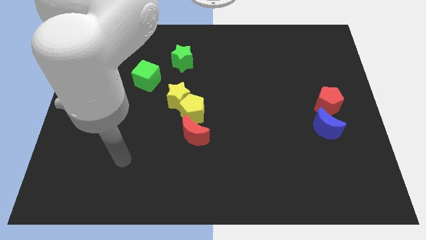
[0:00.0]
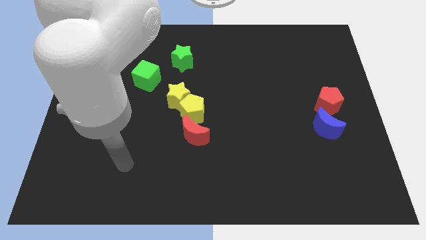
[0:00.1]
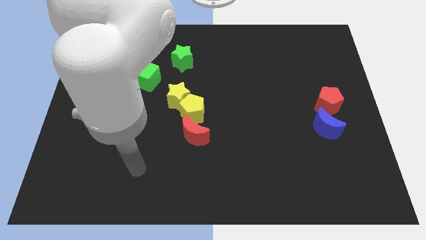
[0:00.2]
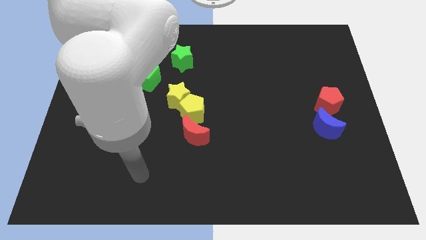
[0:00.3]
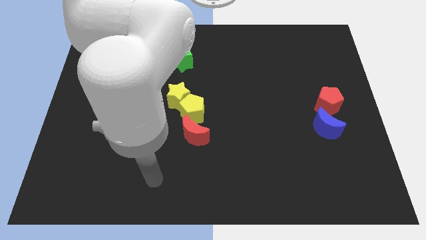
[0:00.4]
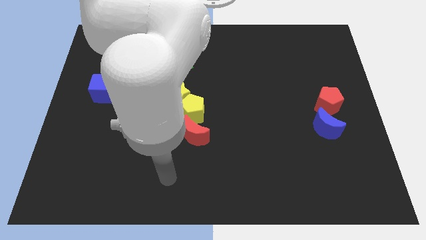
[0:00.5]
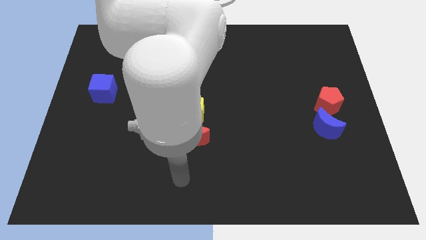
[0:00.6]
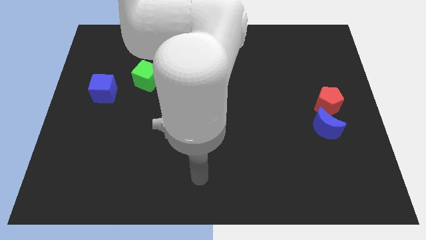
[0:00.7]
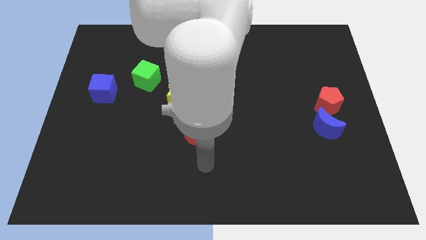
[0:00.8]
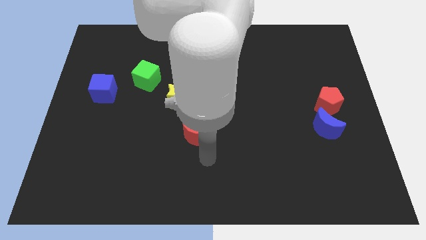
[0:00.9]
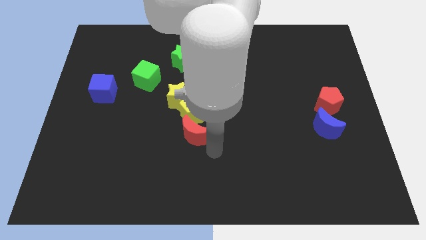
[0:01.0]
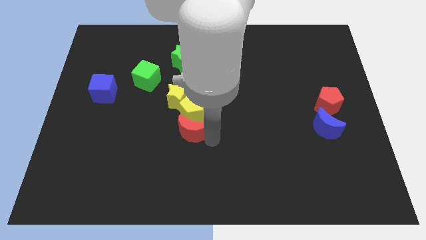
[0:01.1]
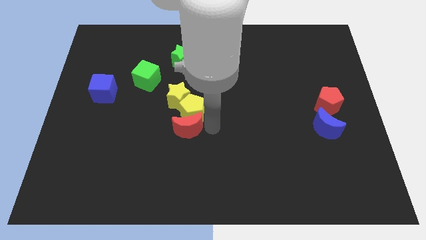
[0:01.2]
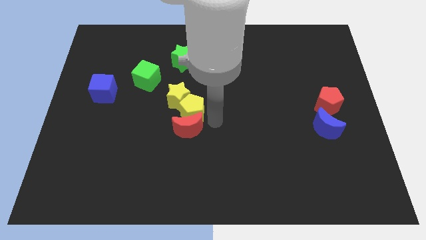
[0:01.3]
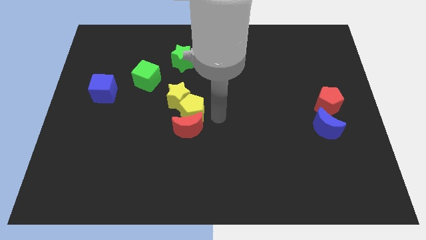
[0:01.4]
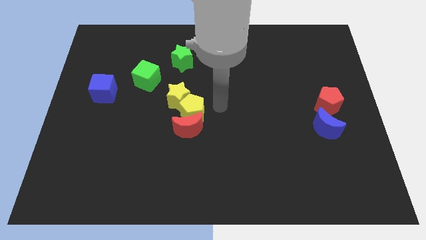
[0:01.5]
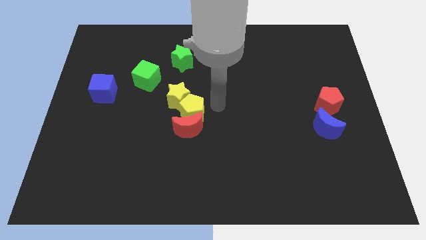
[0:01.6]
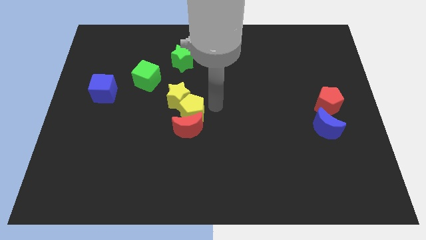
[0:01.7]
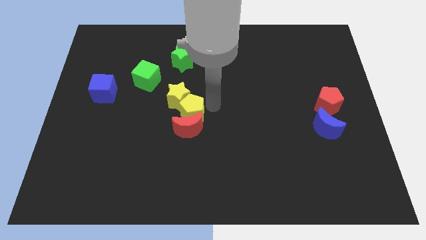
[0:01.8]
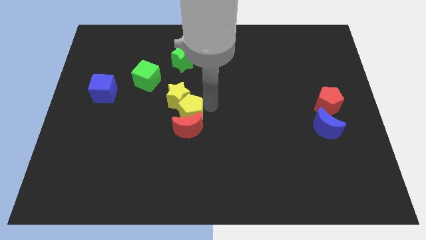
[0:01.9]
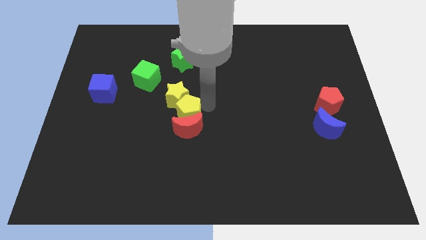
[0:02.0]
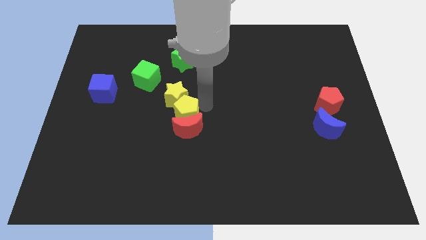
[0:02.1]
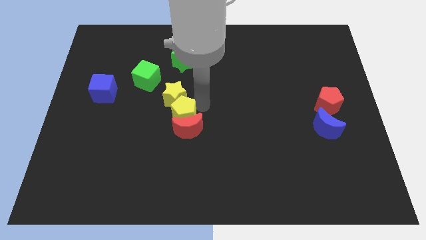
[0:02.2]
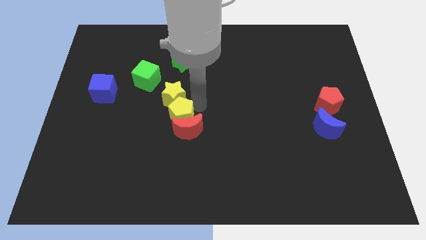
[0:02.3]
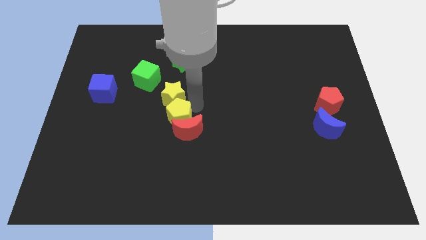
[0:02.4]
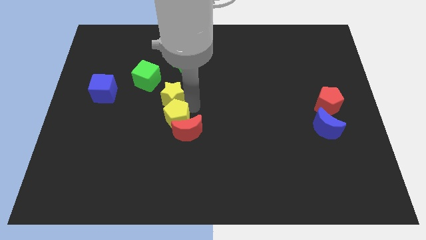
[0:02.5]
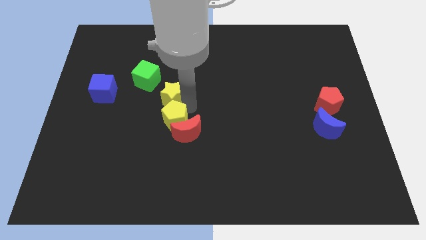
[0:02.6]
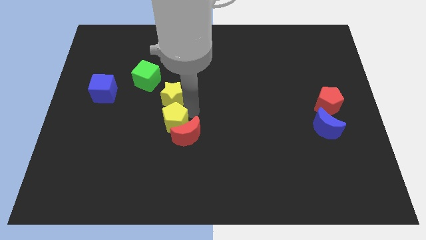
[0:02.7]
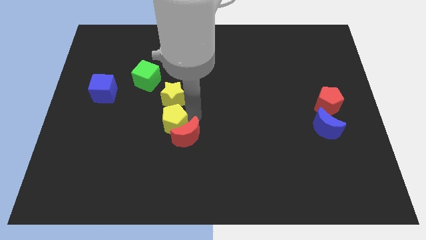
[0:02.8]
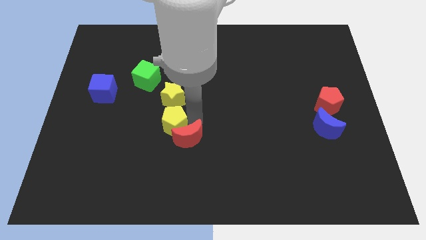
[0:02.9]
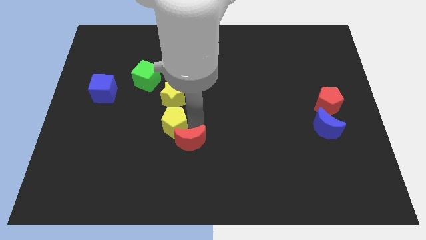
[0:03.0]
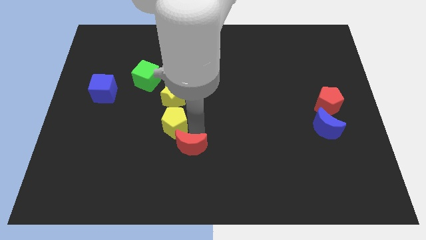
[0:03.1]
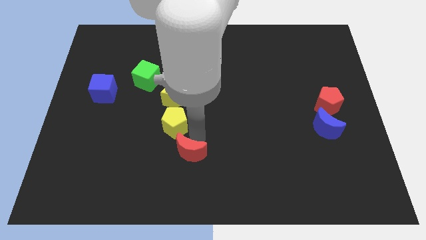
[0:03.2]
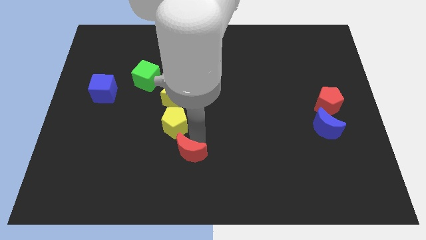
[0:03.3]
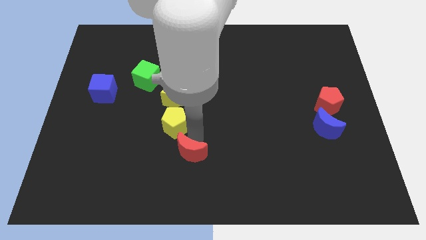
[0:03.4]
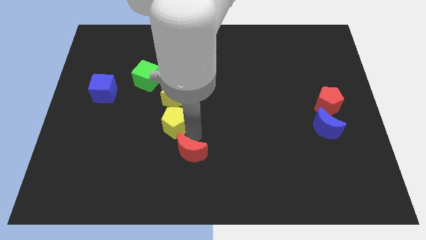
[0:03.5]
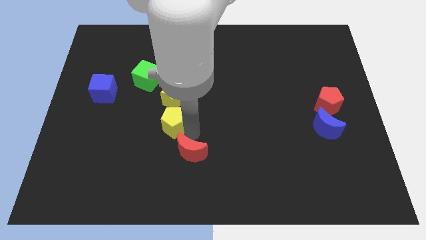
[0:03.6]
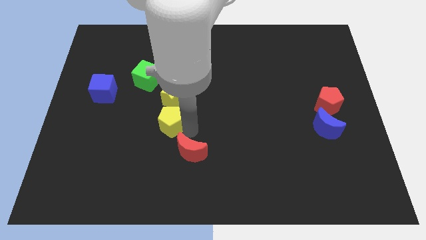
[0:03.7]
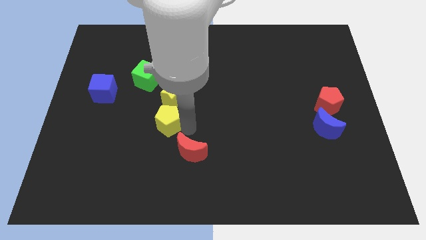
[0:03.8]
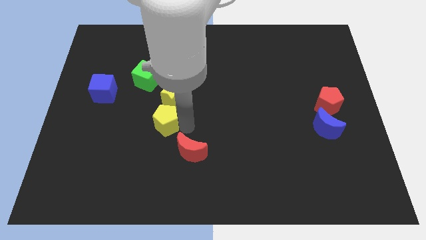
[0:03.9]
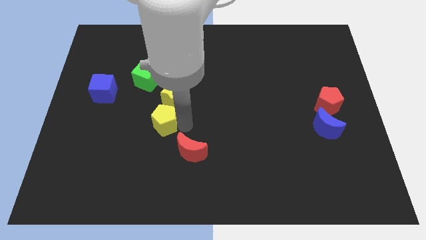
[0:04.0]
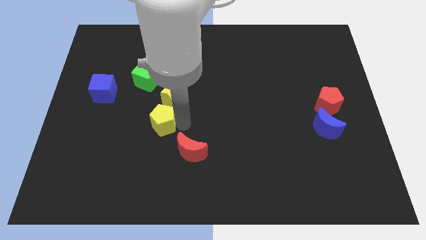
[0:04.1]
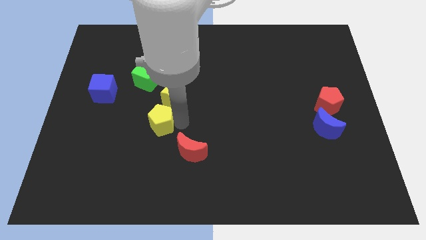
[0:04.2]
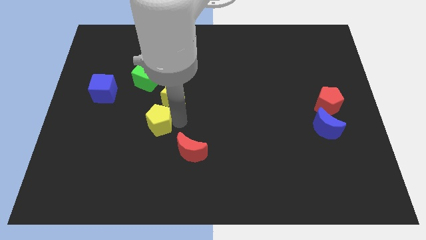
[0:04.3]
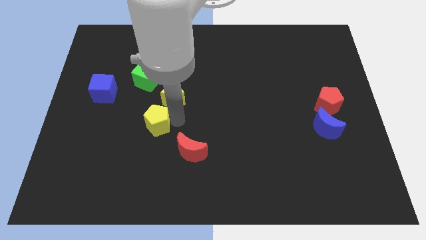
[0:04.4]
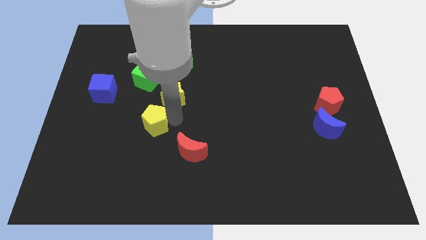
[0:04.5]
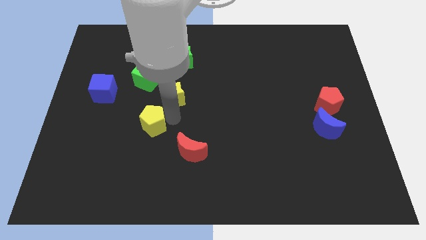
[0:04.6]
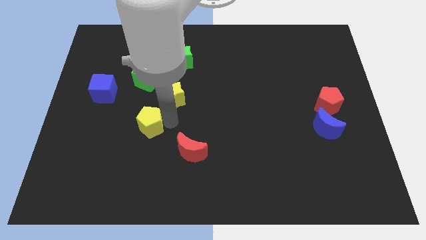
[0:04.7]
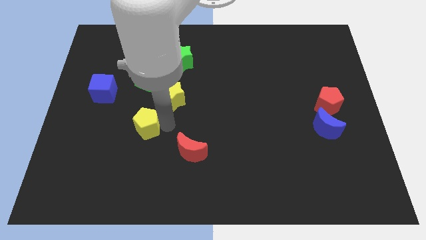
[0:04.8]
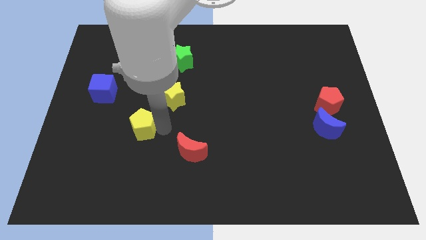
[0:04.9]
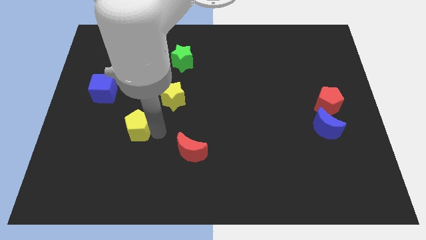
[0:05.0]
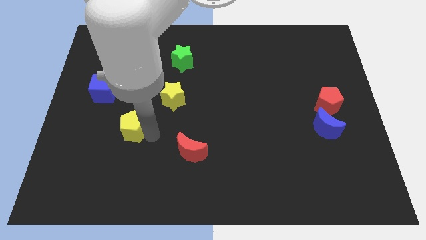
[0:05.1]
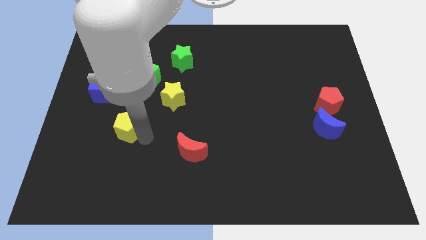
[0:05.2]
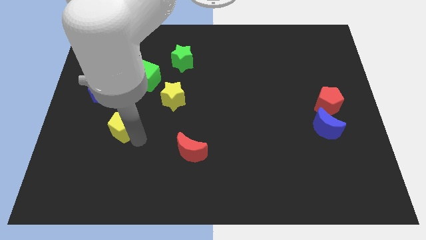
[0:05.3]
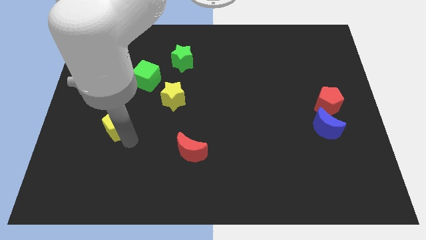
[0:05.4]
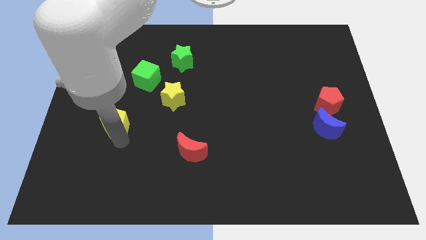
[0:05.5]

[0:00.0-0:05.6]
put the yellow pentagon to the bottom right of the blue cube

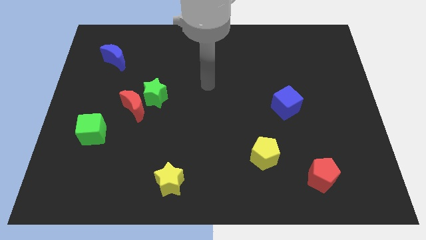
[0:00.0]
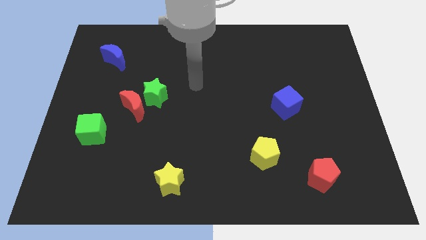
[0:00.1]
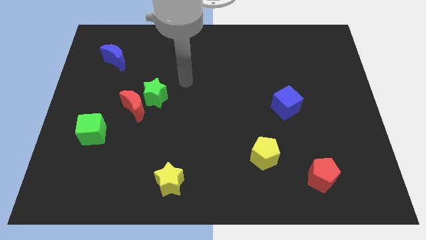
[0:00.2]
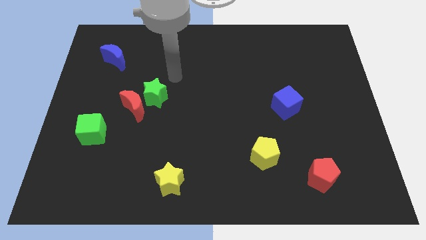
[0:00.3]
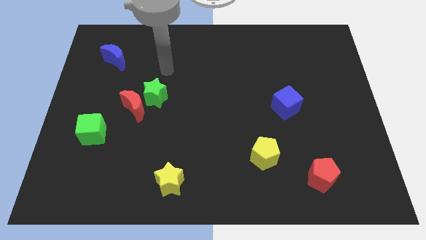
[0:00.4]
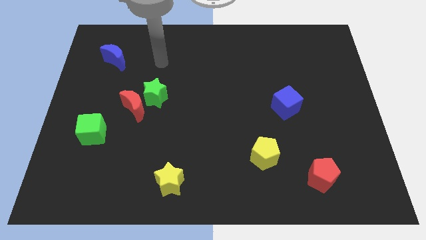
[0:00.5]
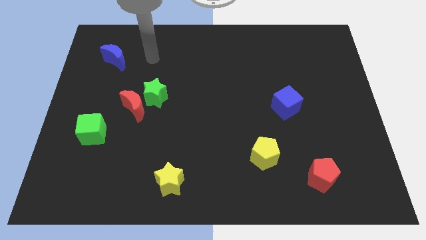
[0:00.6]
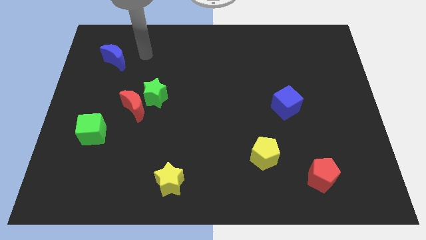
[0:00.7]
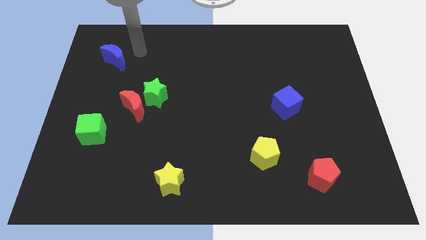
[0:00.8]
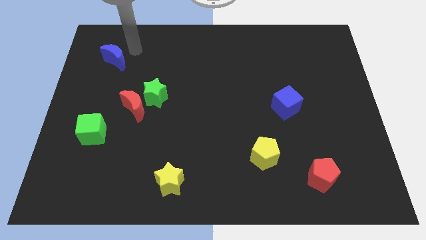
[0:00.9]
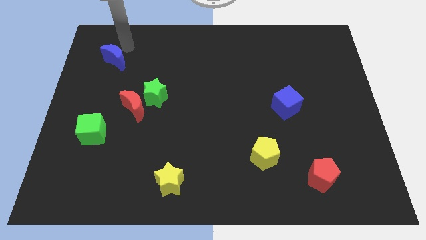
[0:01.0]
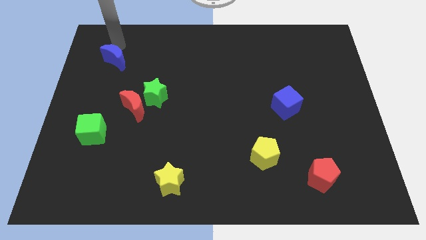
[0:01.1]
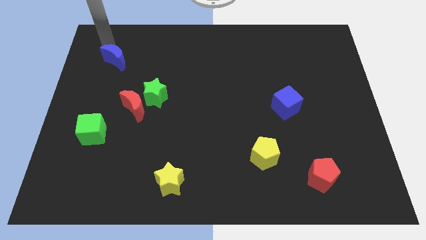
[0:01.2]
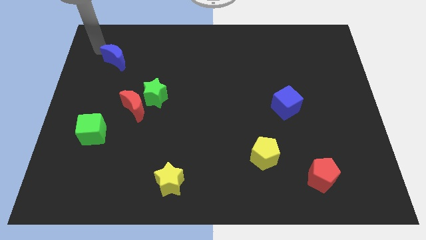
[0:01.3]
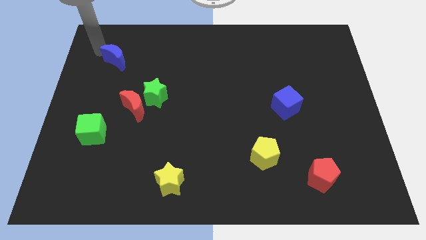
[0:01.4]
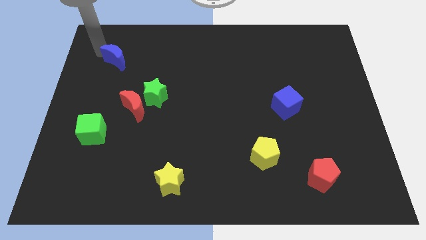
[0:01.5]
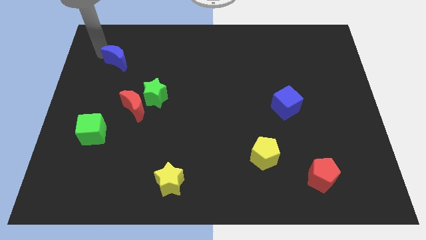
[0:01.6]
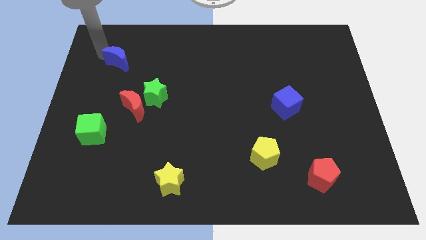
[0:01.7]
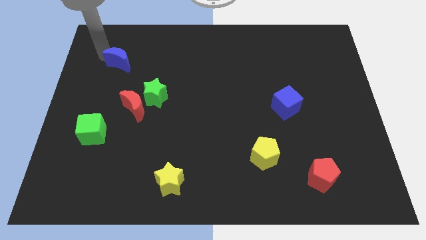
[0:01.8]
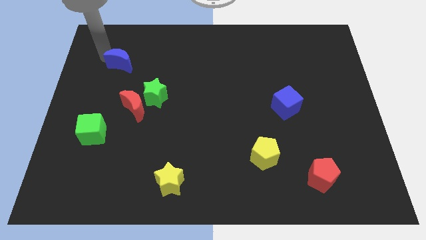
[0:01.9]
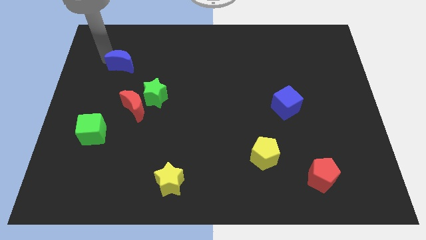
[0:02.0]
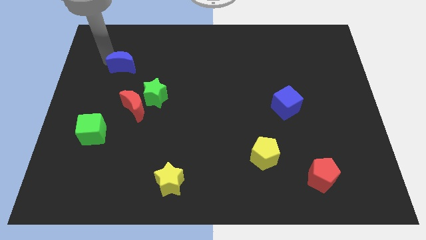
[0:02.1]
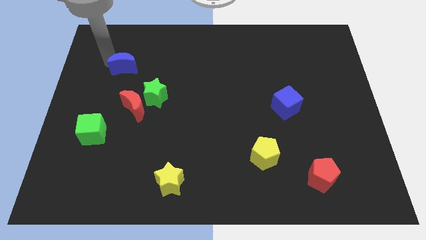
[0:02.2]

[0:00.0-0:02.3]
push the blue moon above the red moon
